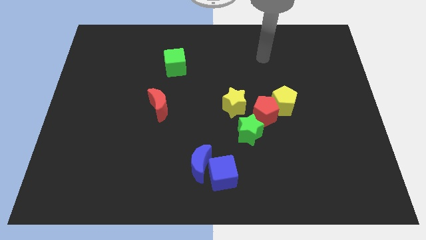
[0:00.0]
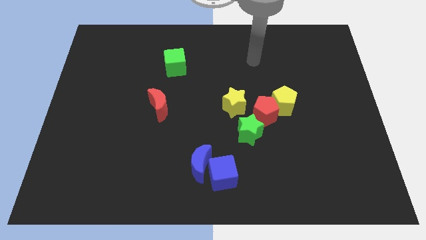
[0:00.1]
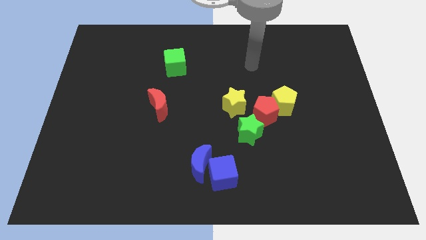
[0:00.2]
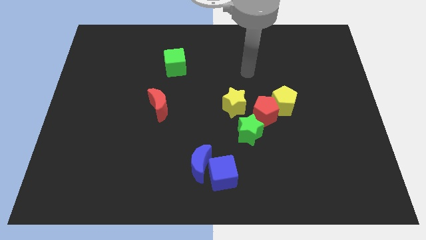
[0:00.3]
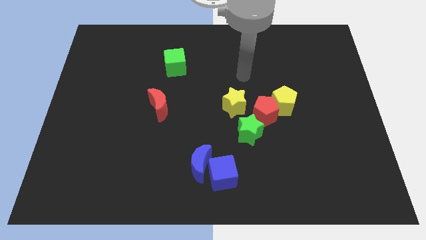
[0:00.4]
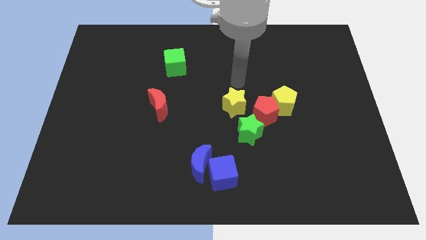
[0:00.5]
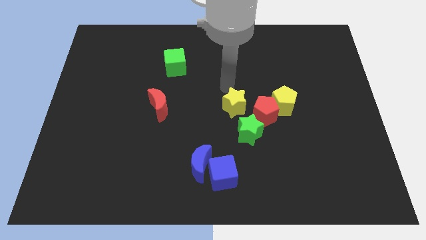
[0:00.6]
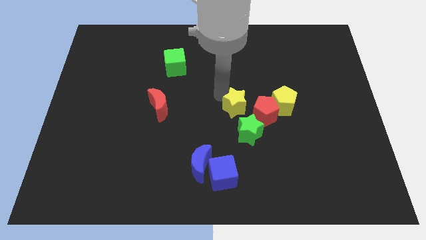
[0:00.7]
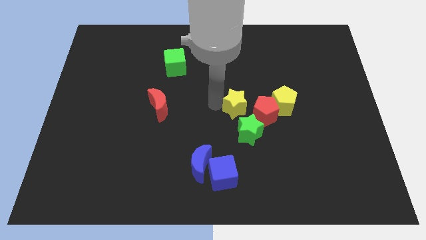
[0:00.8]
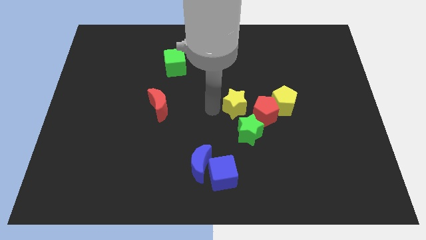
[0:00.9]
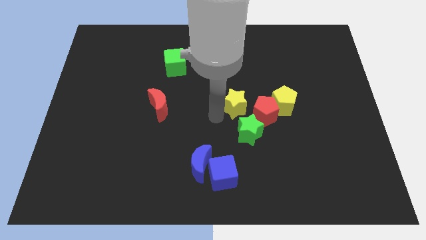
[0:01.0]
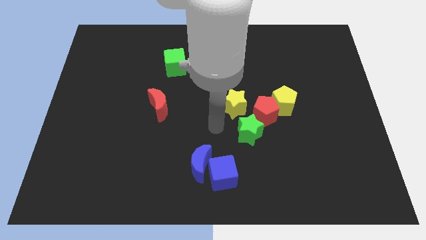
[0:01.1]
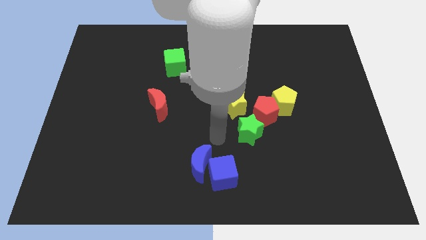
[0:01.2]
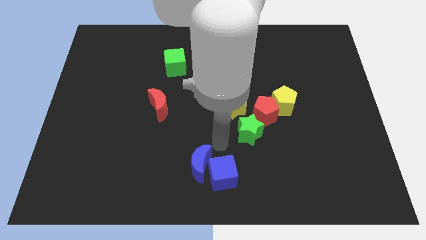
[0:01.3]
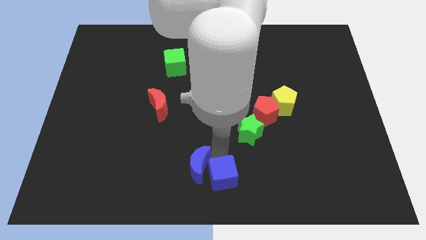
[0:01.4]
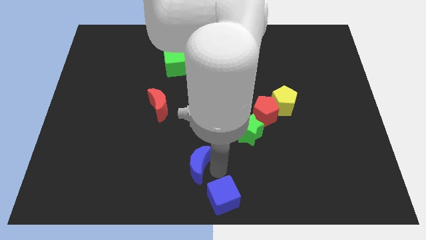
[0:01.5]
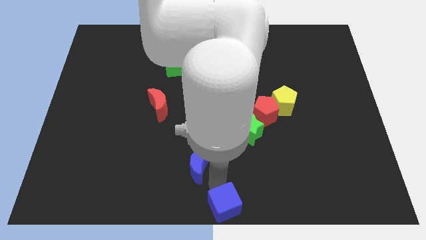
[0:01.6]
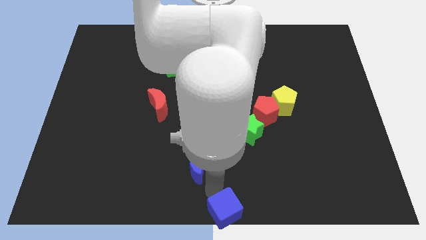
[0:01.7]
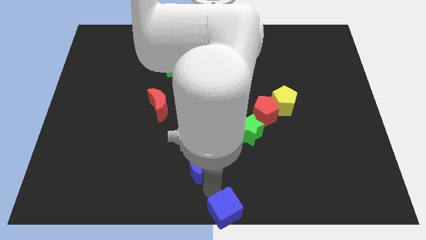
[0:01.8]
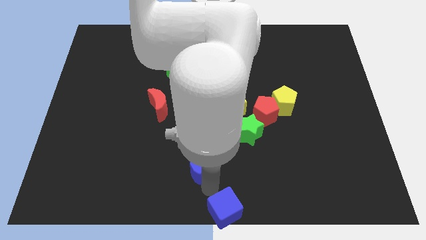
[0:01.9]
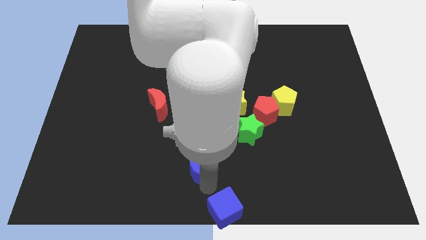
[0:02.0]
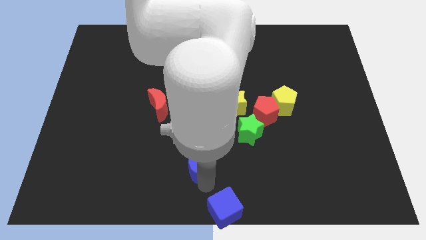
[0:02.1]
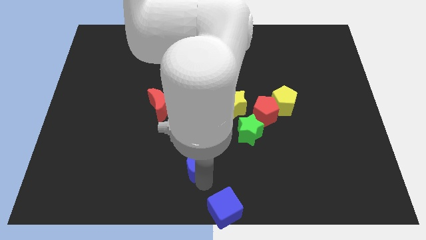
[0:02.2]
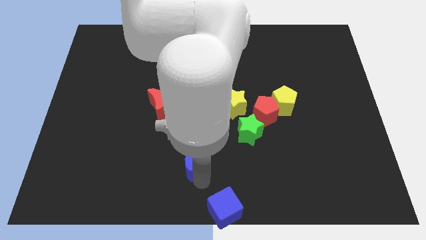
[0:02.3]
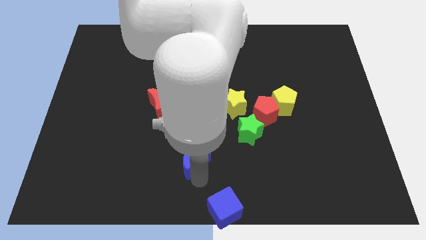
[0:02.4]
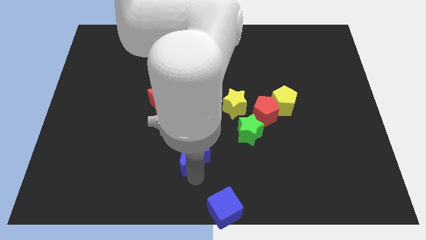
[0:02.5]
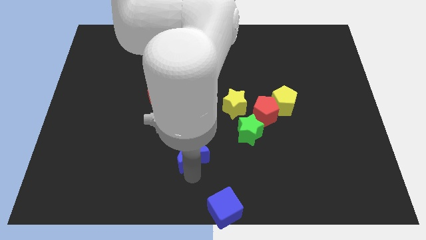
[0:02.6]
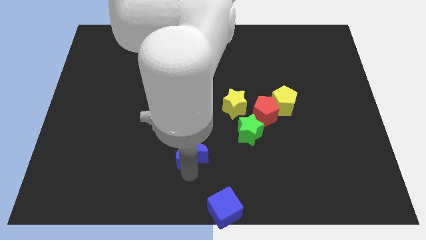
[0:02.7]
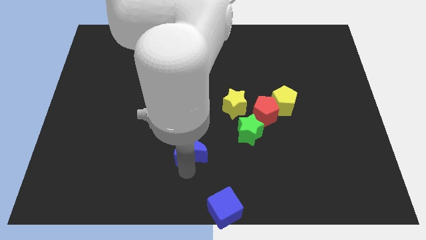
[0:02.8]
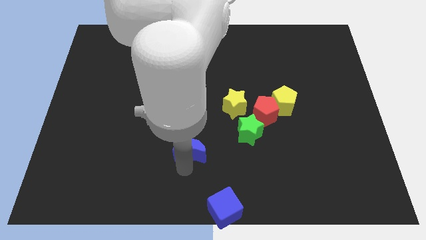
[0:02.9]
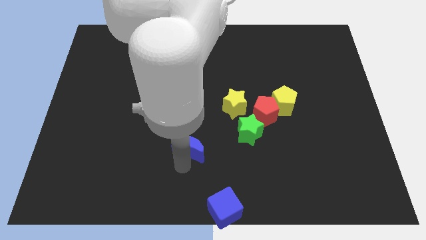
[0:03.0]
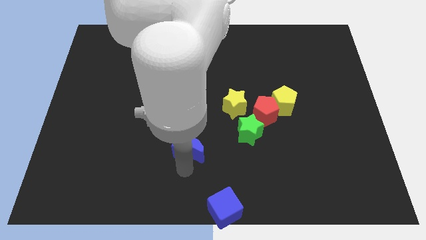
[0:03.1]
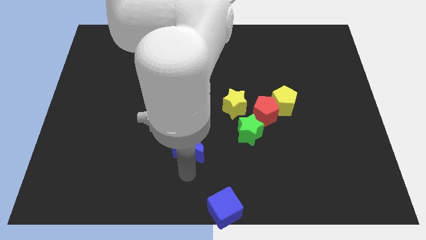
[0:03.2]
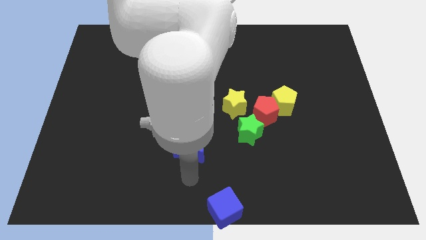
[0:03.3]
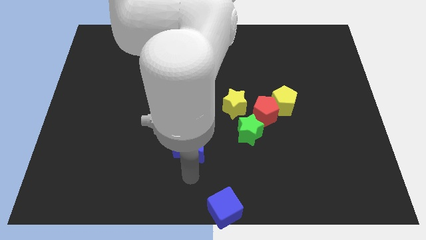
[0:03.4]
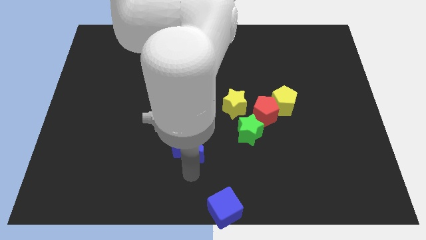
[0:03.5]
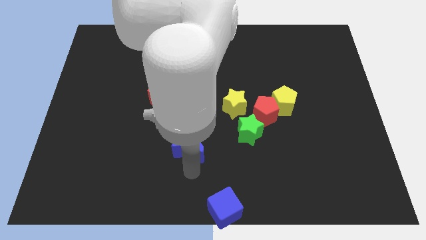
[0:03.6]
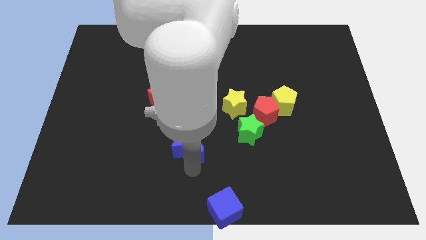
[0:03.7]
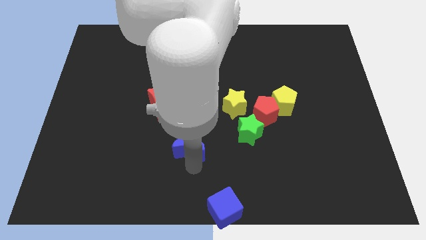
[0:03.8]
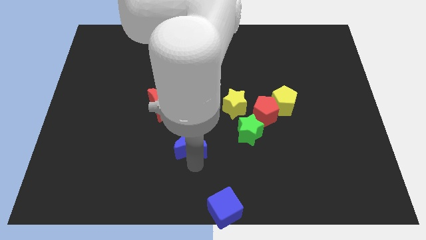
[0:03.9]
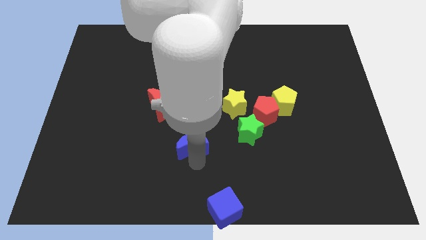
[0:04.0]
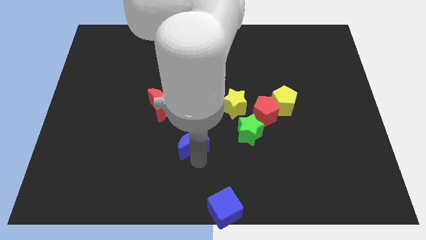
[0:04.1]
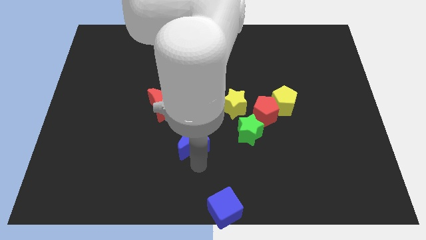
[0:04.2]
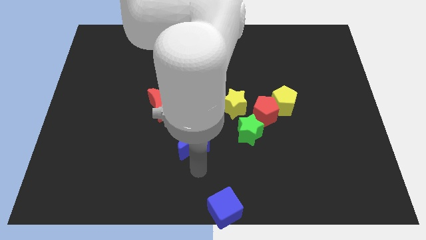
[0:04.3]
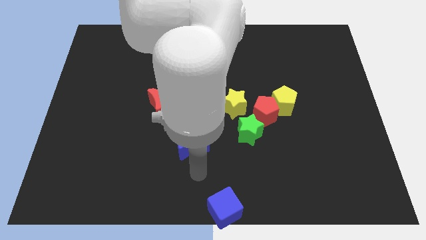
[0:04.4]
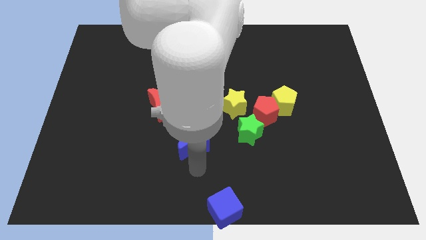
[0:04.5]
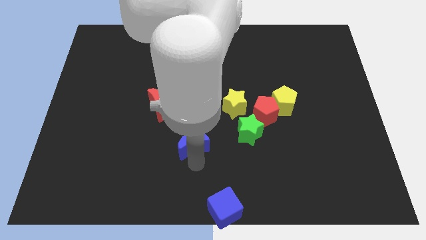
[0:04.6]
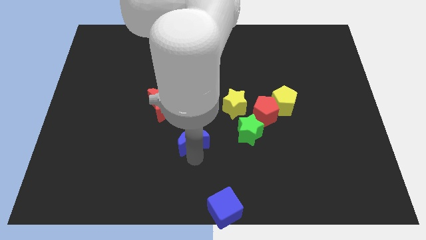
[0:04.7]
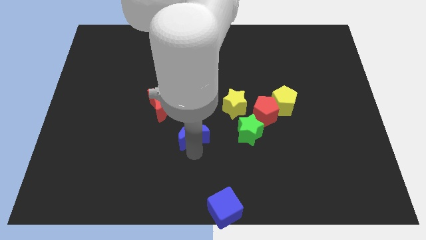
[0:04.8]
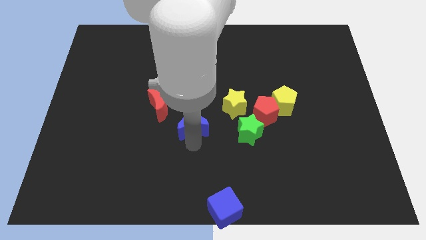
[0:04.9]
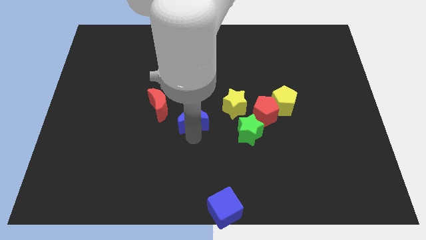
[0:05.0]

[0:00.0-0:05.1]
push the blue moon to the left of the yellow star

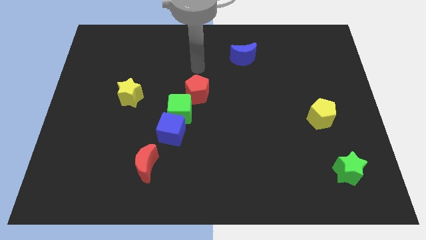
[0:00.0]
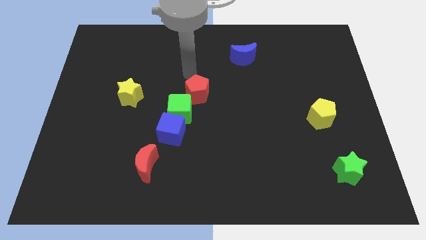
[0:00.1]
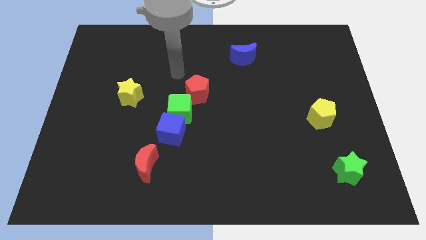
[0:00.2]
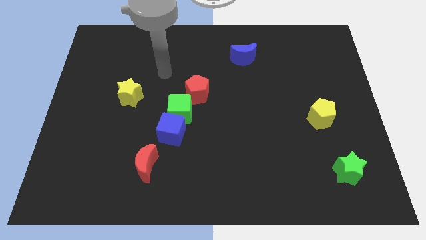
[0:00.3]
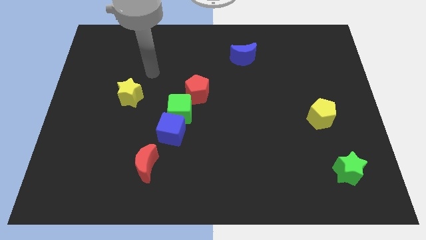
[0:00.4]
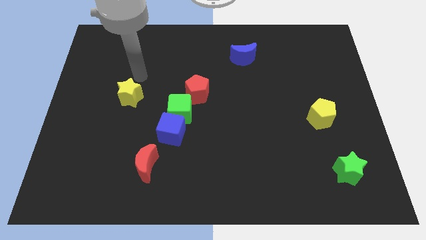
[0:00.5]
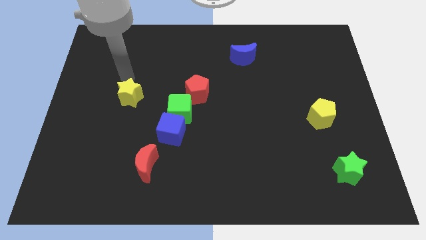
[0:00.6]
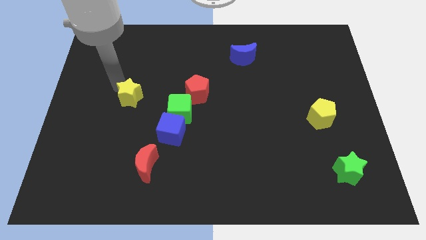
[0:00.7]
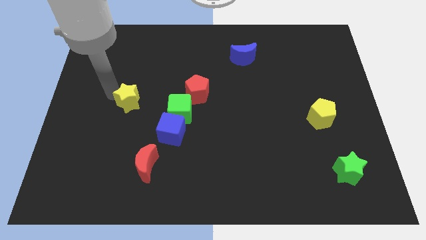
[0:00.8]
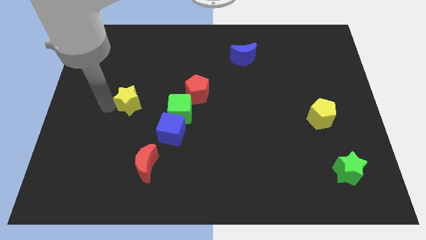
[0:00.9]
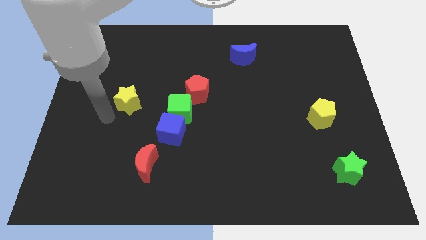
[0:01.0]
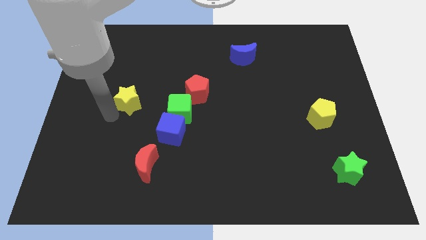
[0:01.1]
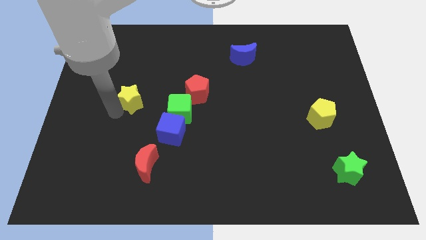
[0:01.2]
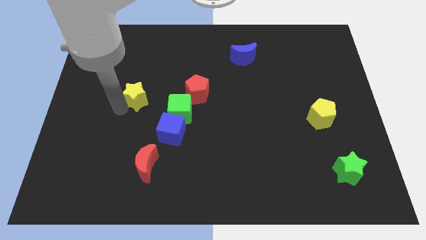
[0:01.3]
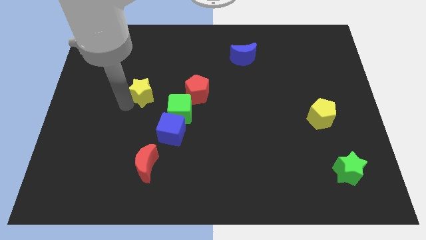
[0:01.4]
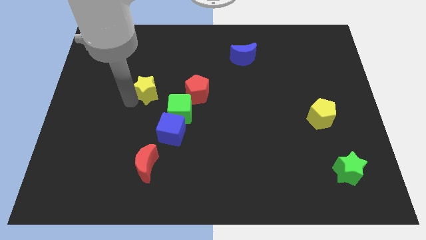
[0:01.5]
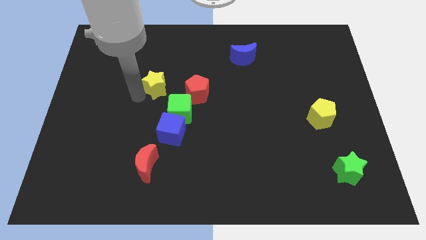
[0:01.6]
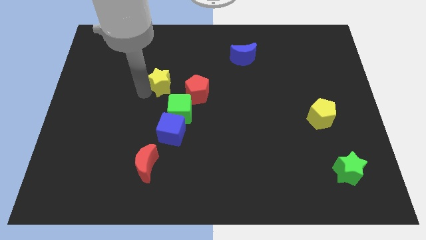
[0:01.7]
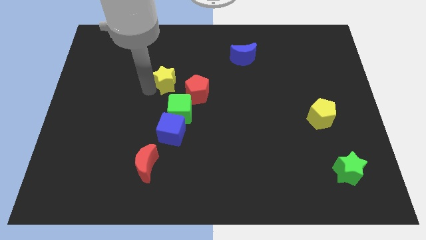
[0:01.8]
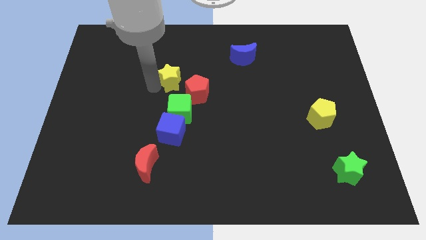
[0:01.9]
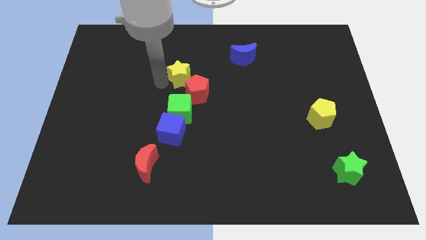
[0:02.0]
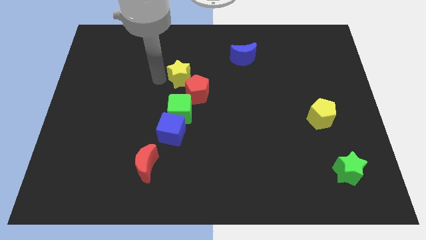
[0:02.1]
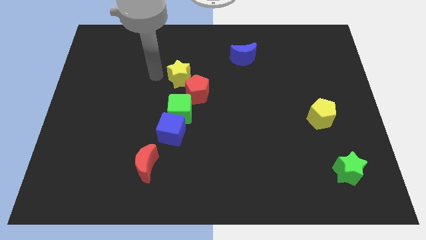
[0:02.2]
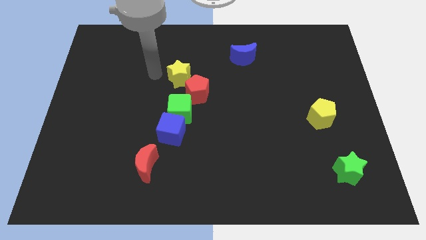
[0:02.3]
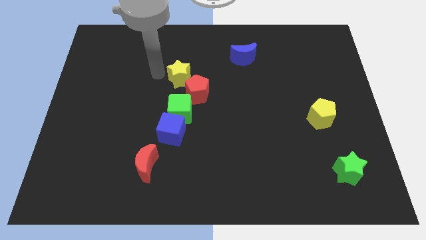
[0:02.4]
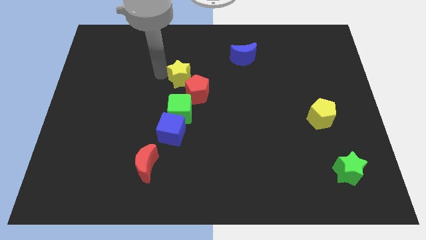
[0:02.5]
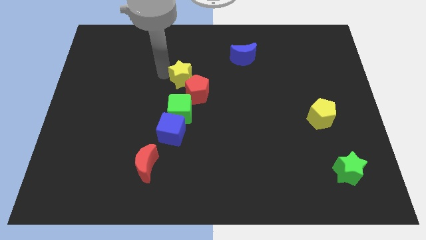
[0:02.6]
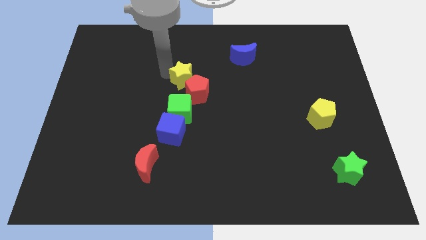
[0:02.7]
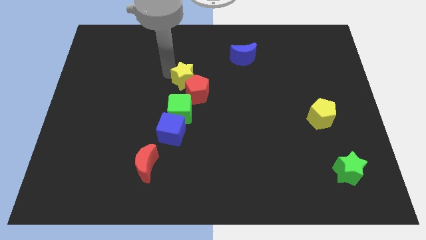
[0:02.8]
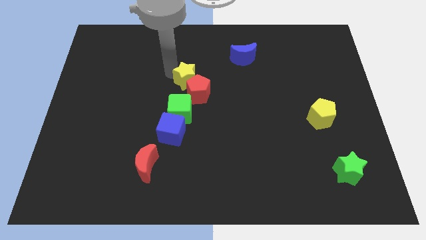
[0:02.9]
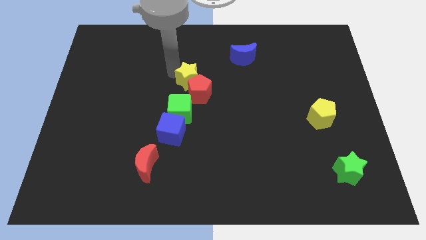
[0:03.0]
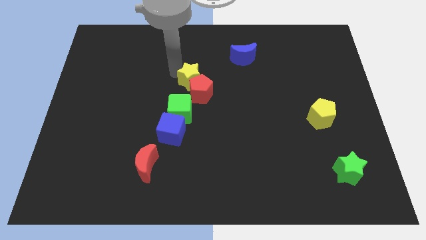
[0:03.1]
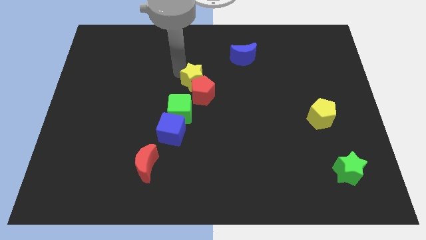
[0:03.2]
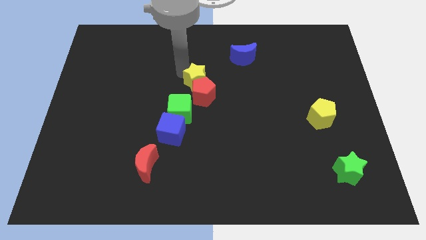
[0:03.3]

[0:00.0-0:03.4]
slide the yellow star to the top right side of the red pentagon
